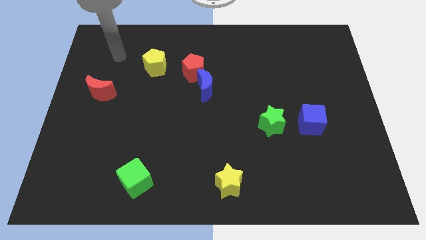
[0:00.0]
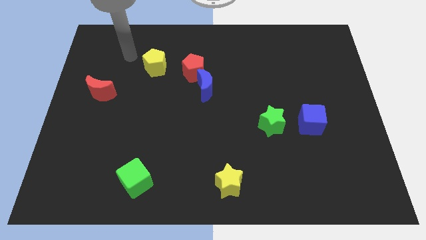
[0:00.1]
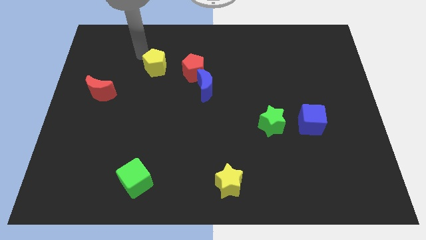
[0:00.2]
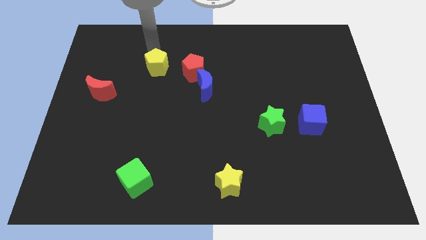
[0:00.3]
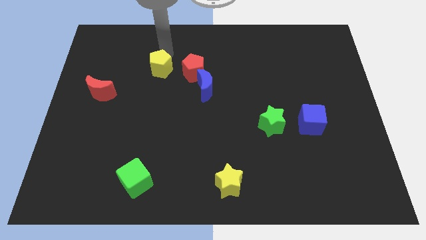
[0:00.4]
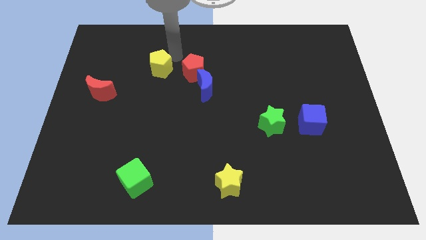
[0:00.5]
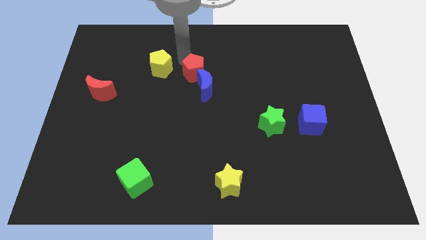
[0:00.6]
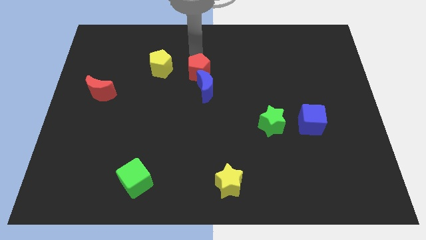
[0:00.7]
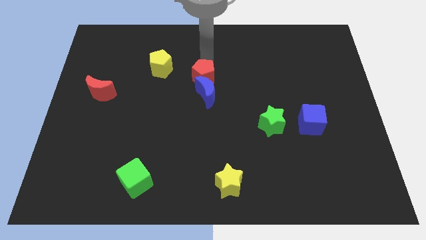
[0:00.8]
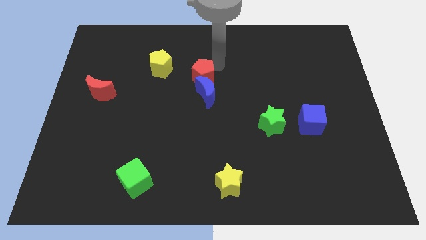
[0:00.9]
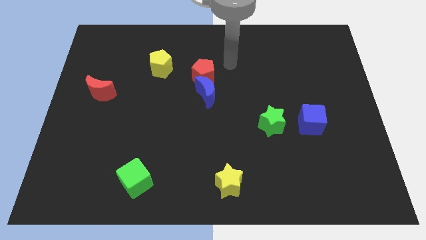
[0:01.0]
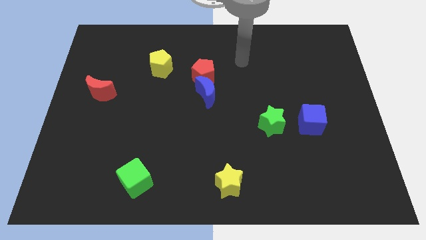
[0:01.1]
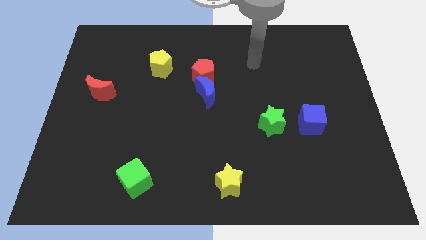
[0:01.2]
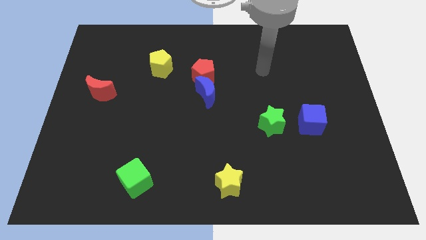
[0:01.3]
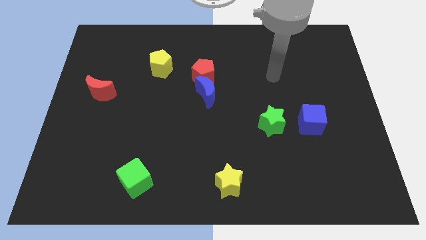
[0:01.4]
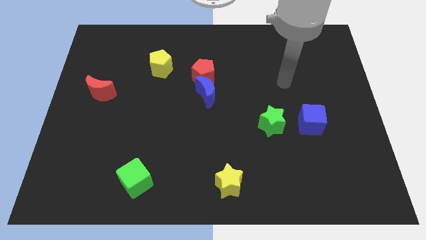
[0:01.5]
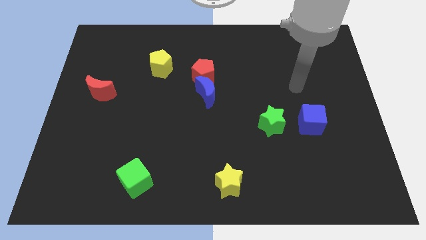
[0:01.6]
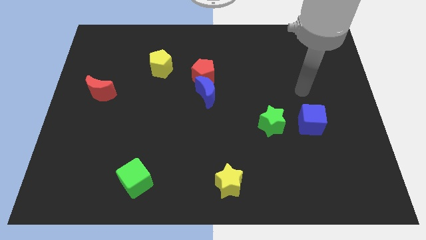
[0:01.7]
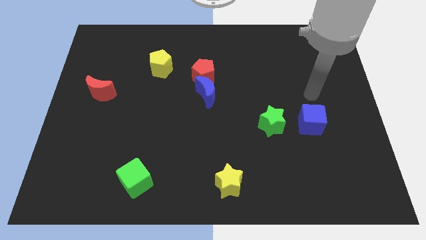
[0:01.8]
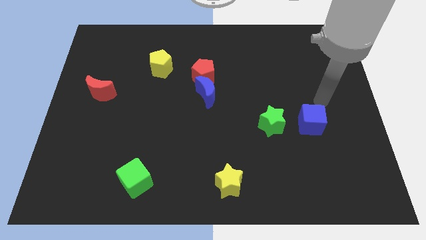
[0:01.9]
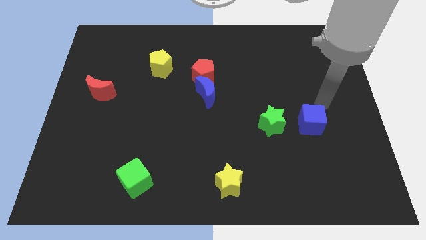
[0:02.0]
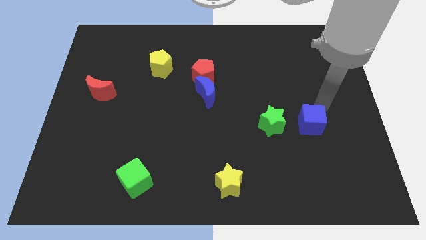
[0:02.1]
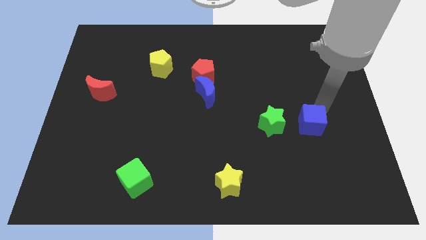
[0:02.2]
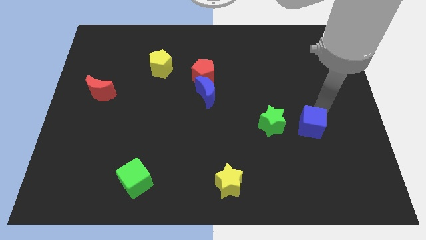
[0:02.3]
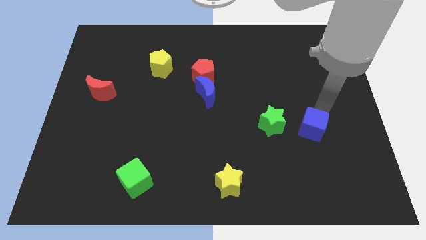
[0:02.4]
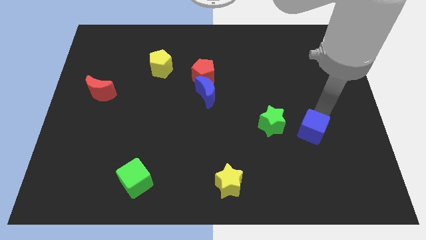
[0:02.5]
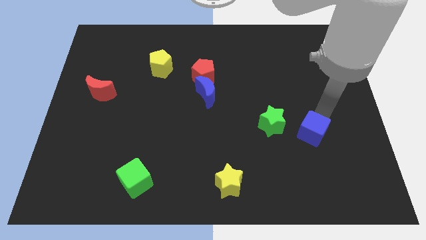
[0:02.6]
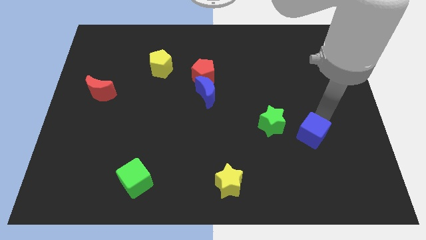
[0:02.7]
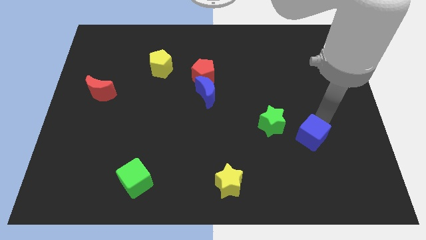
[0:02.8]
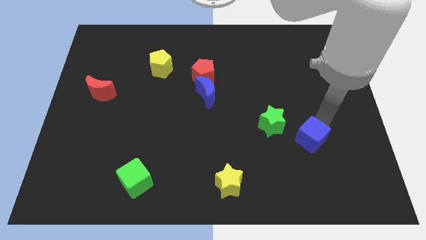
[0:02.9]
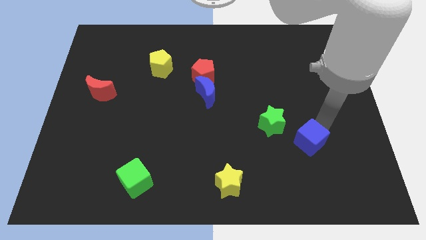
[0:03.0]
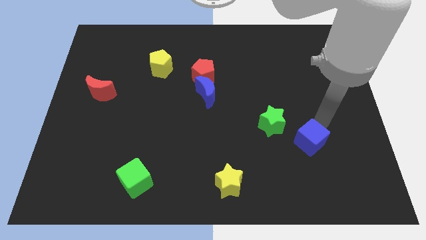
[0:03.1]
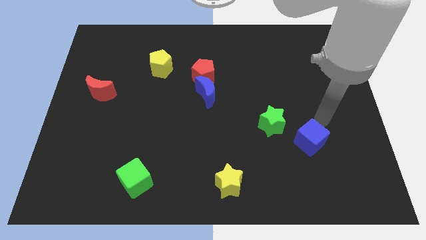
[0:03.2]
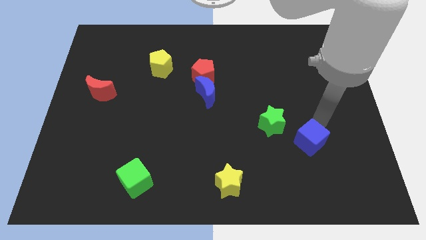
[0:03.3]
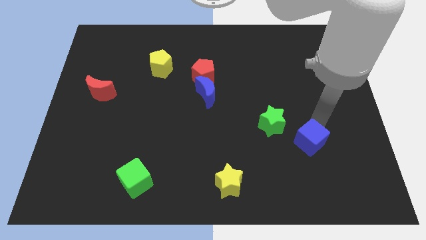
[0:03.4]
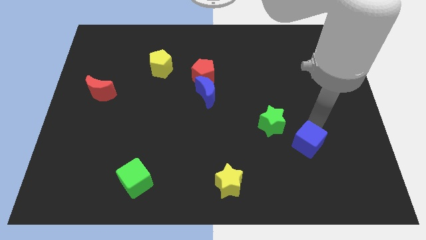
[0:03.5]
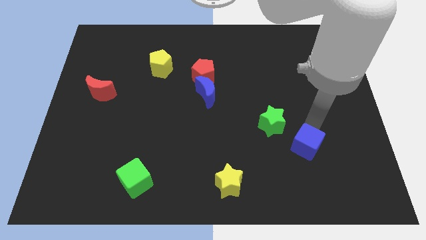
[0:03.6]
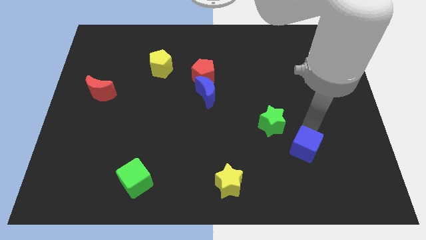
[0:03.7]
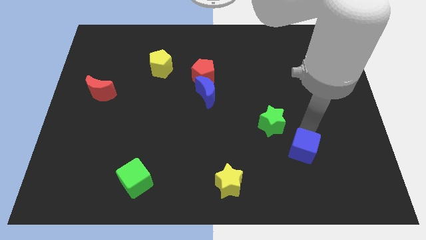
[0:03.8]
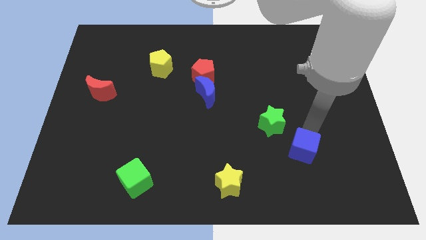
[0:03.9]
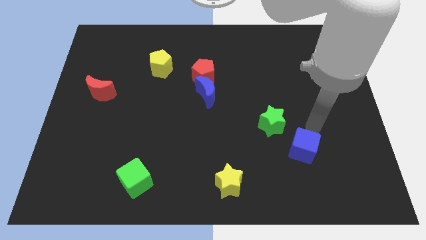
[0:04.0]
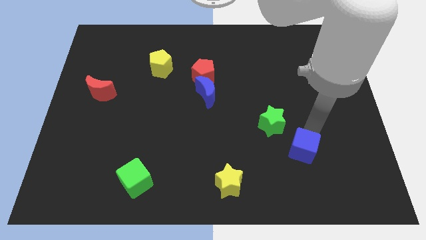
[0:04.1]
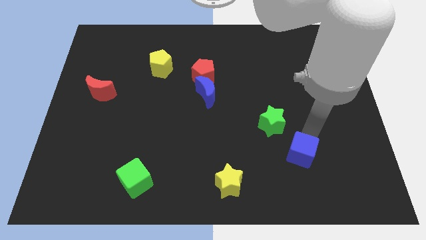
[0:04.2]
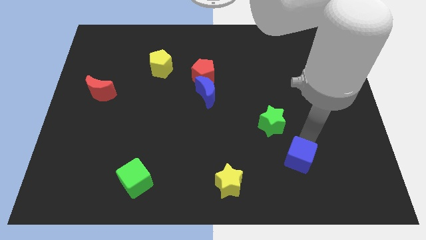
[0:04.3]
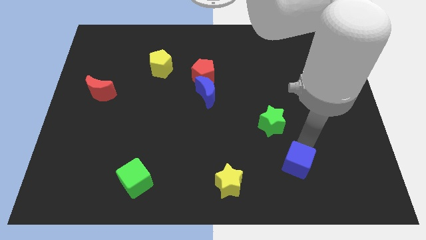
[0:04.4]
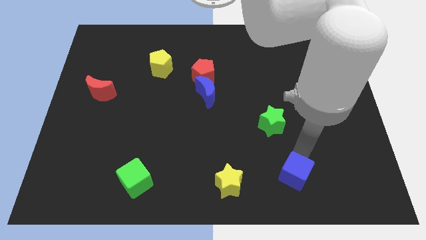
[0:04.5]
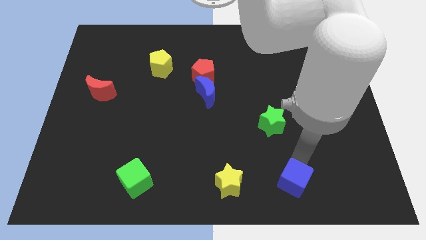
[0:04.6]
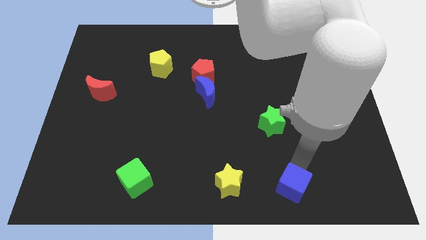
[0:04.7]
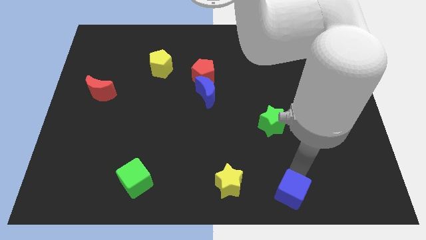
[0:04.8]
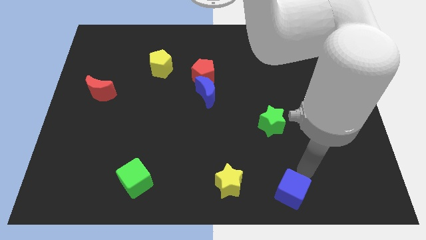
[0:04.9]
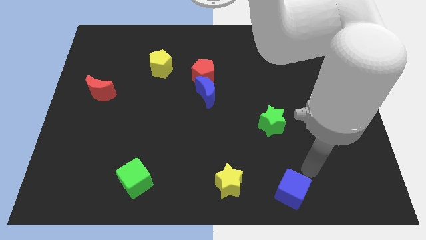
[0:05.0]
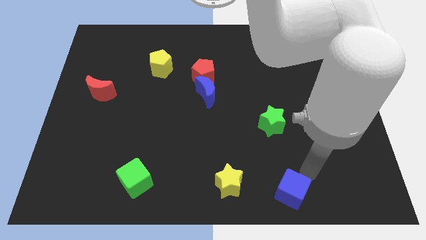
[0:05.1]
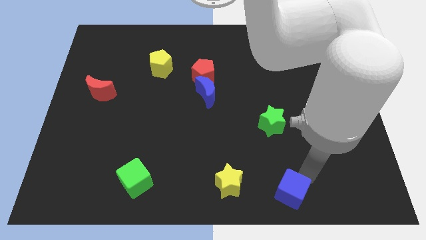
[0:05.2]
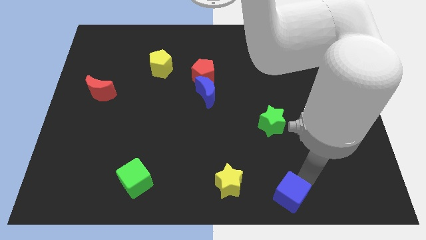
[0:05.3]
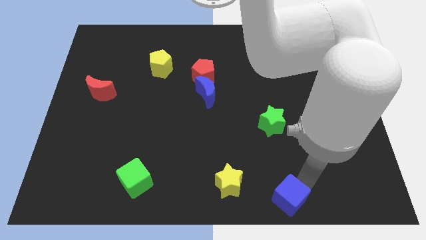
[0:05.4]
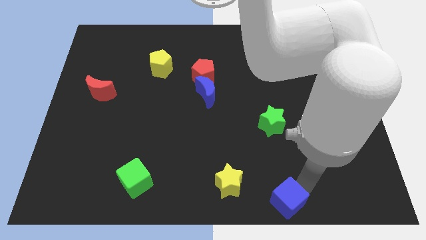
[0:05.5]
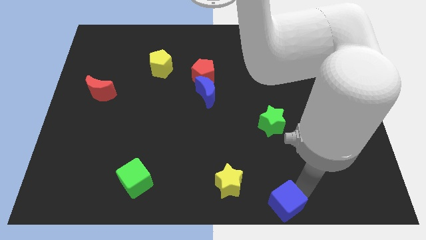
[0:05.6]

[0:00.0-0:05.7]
slide the blue cube to the bottom

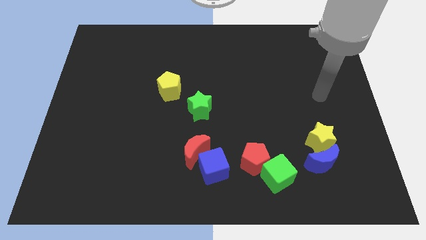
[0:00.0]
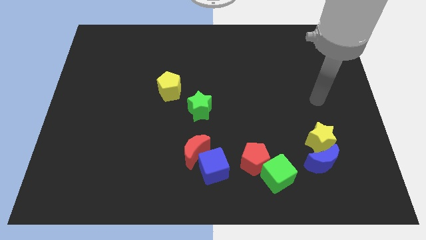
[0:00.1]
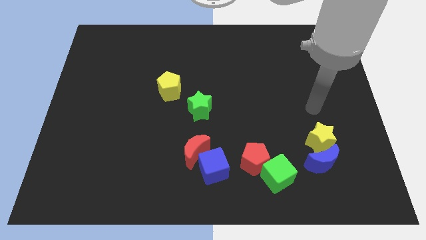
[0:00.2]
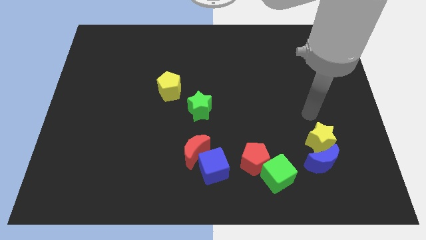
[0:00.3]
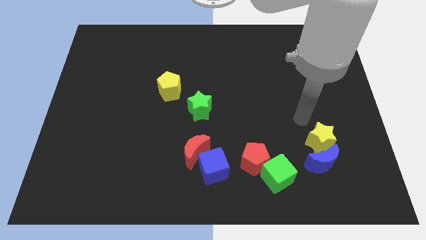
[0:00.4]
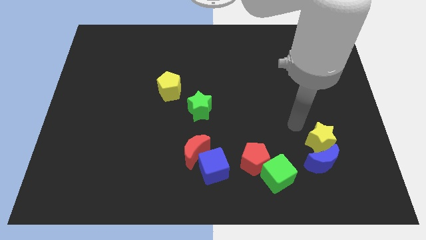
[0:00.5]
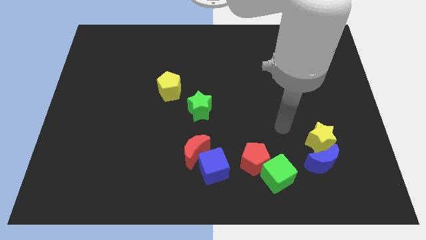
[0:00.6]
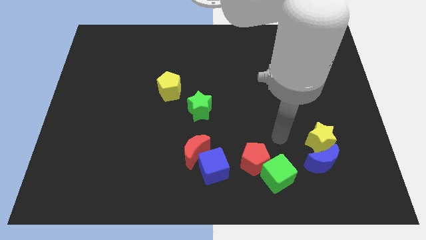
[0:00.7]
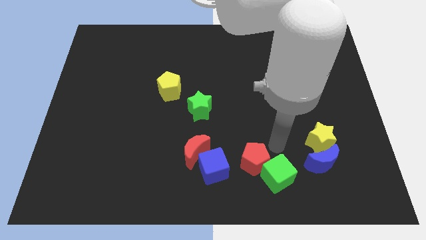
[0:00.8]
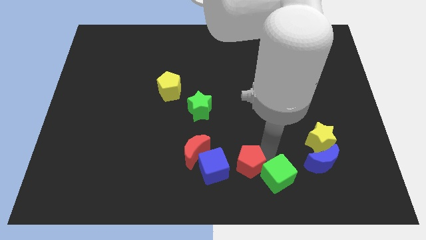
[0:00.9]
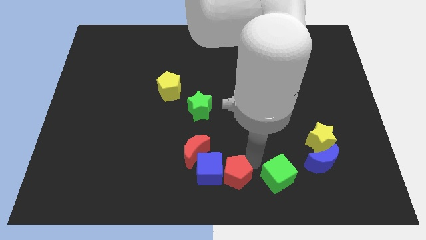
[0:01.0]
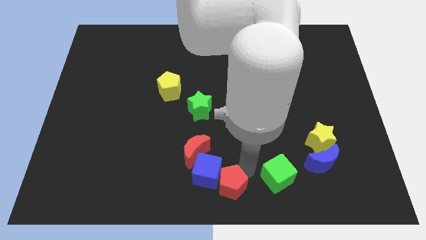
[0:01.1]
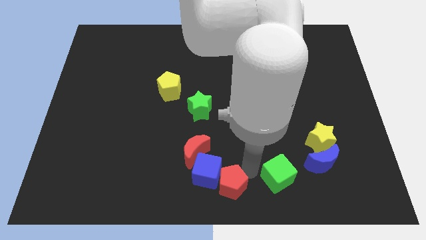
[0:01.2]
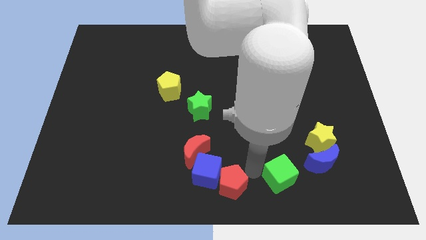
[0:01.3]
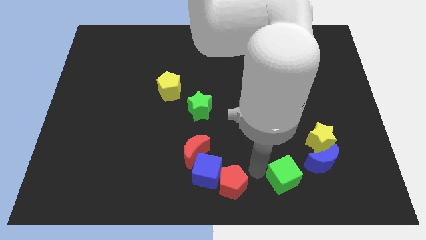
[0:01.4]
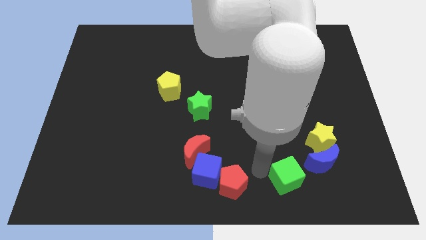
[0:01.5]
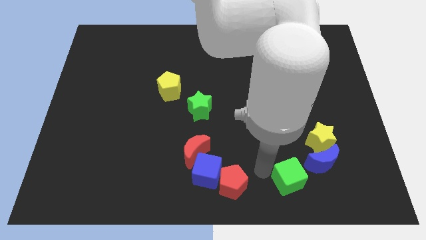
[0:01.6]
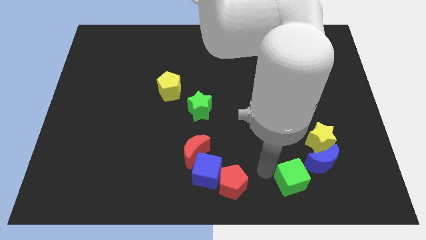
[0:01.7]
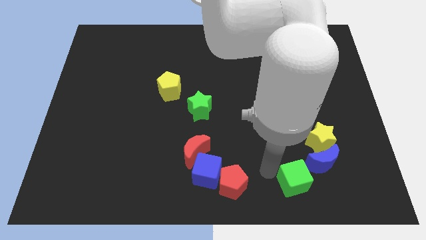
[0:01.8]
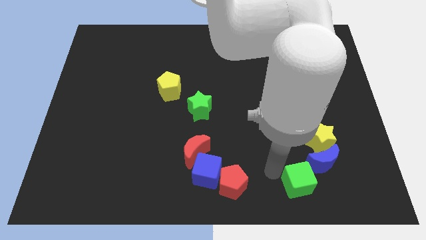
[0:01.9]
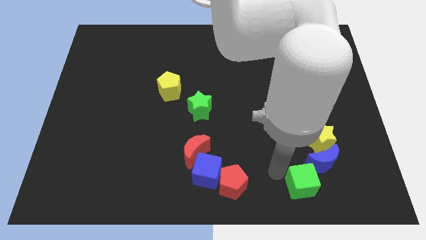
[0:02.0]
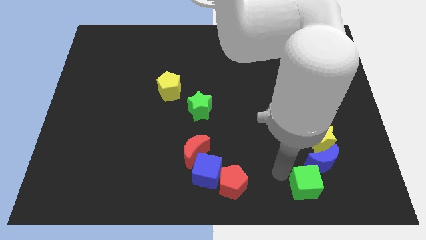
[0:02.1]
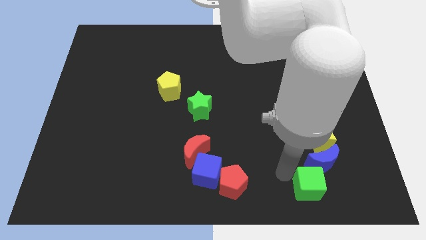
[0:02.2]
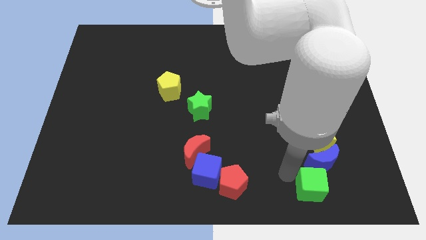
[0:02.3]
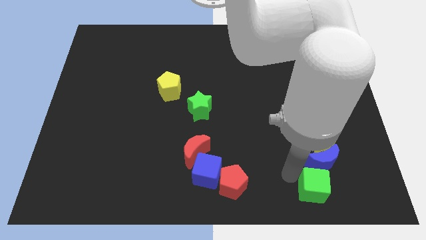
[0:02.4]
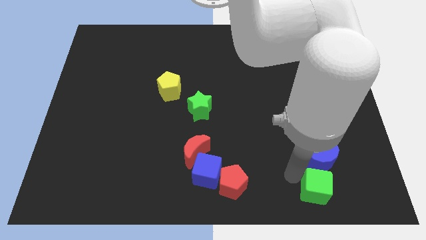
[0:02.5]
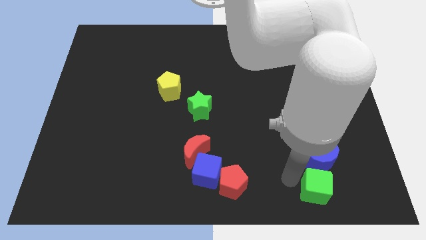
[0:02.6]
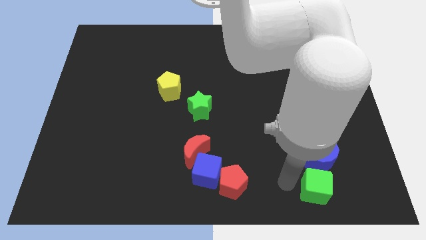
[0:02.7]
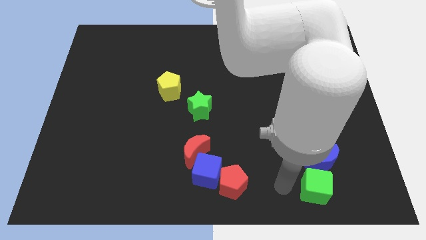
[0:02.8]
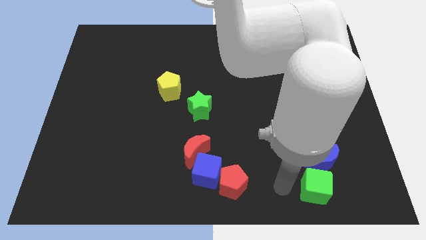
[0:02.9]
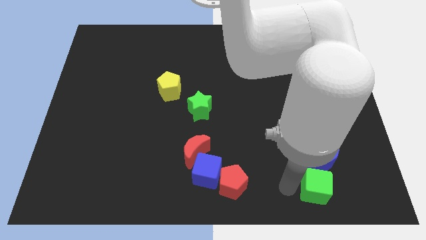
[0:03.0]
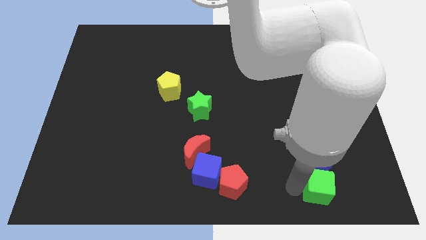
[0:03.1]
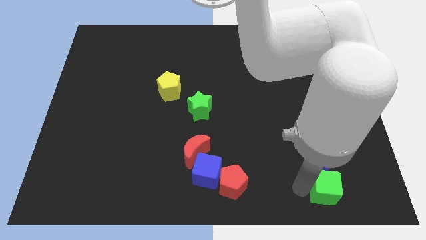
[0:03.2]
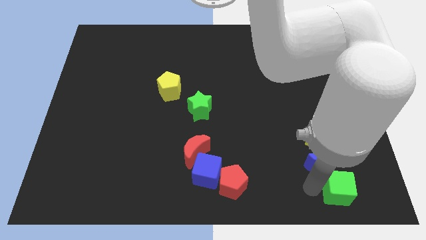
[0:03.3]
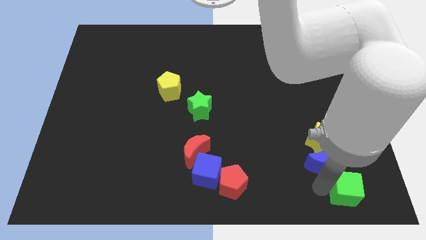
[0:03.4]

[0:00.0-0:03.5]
push the green cube to the bottom right
